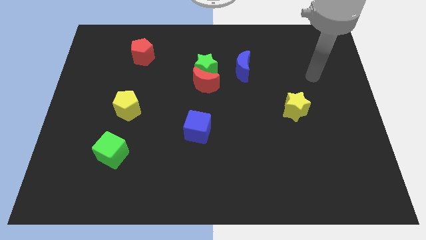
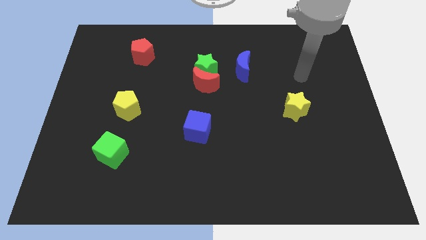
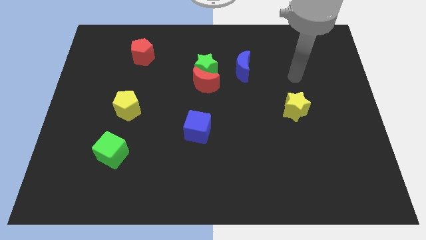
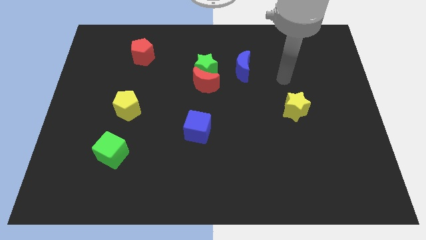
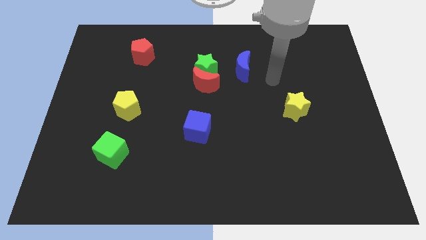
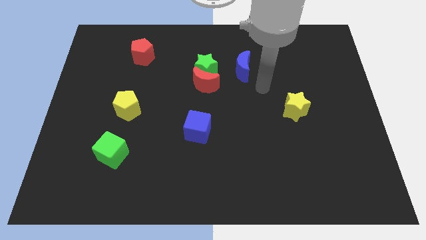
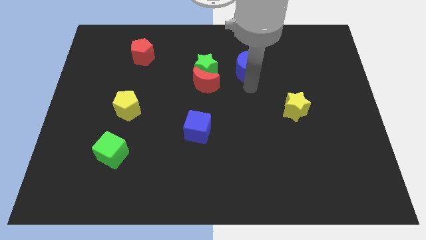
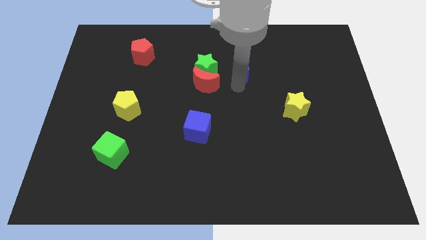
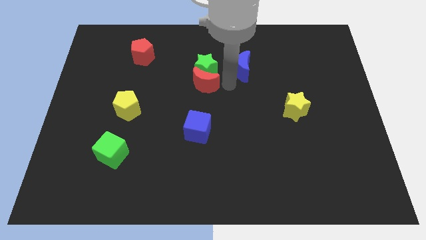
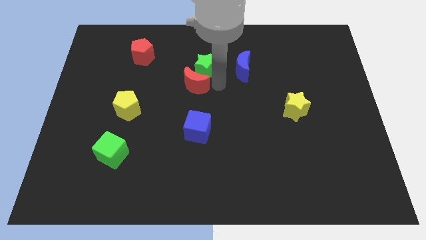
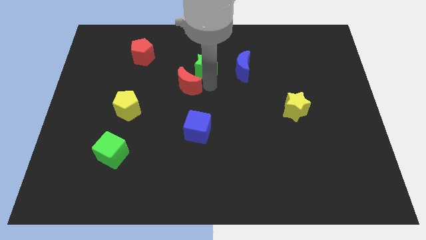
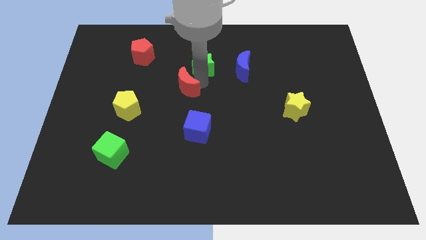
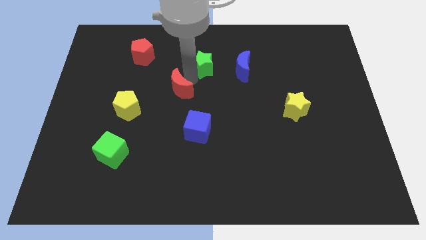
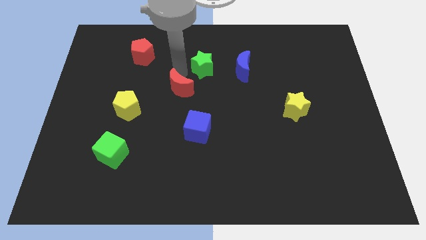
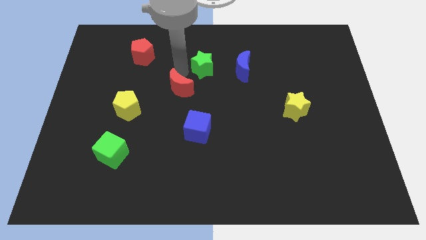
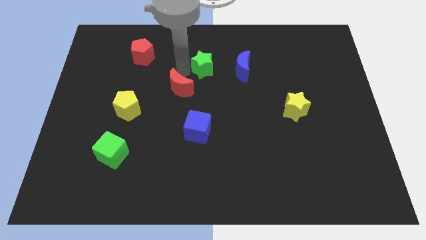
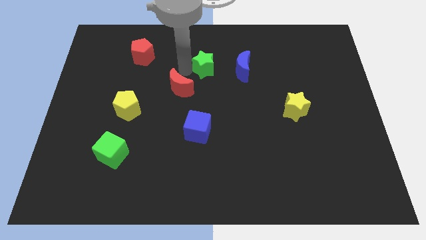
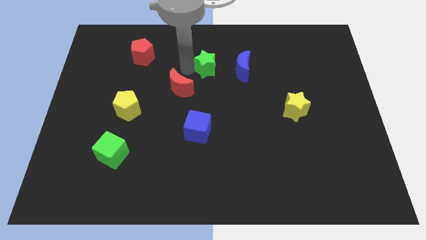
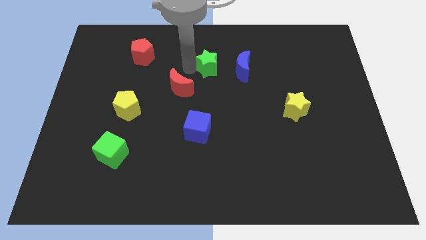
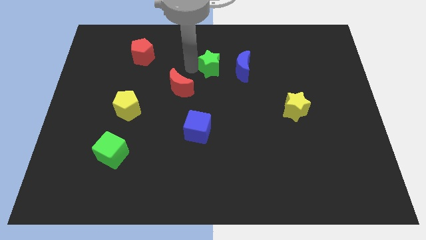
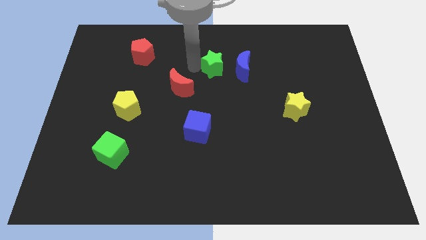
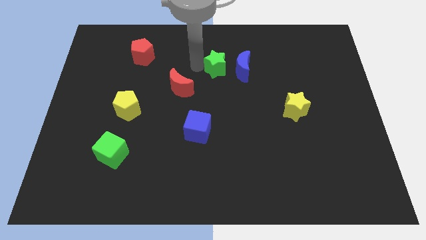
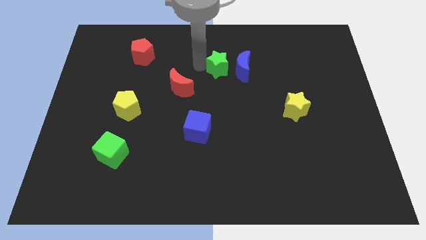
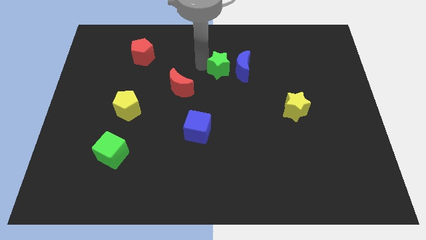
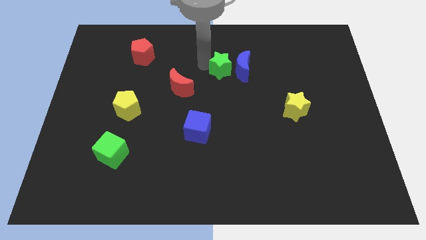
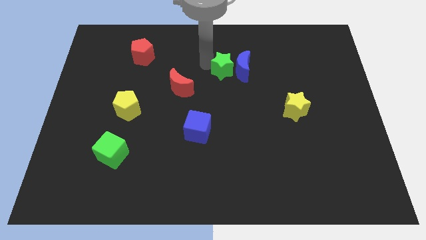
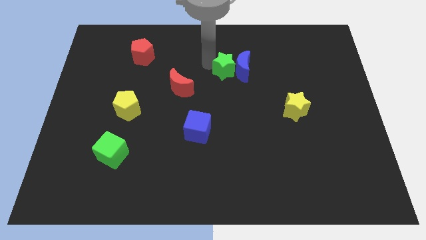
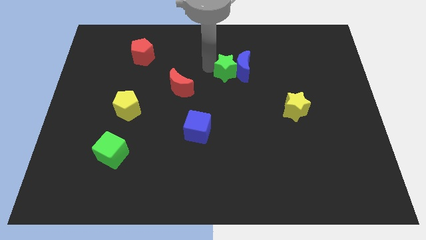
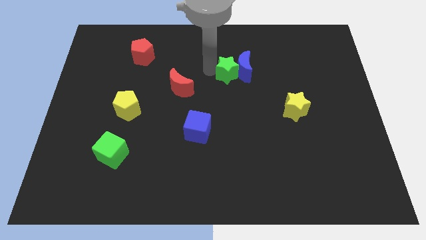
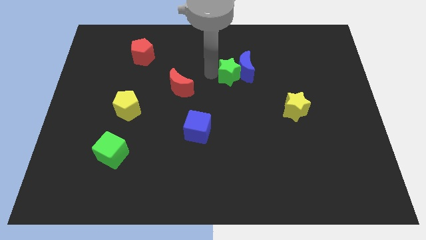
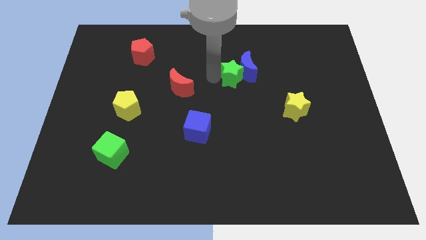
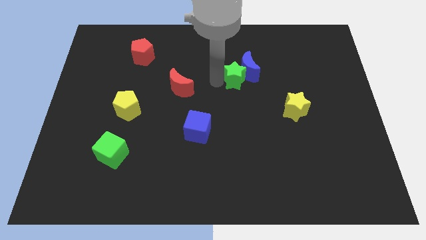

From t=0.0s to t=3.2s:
move the green star right a little bit

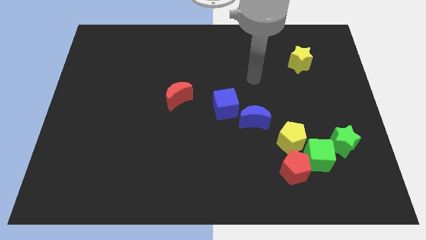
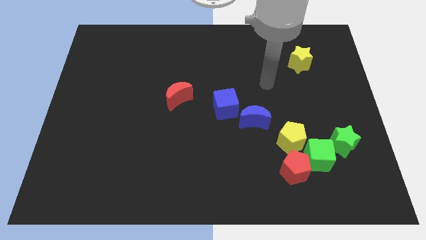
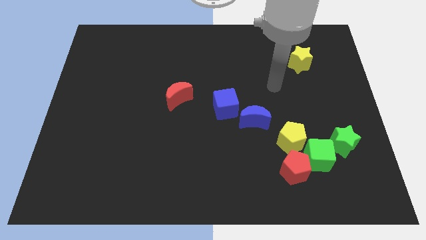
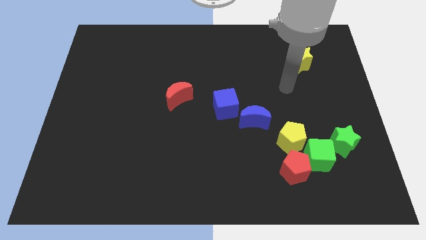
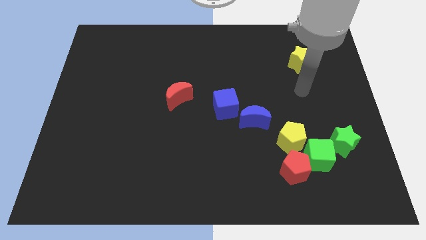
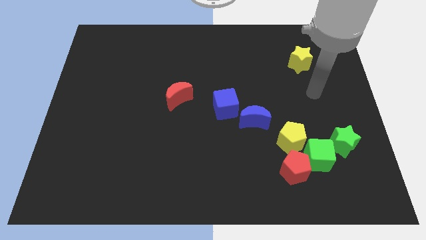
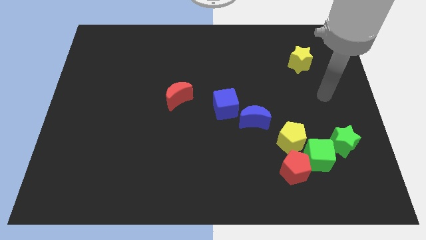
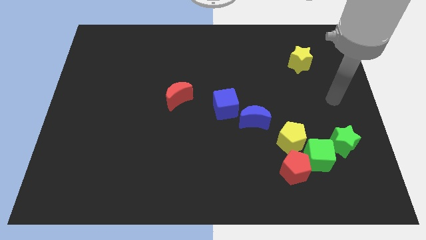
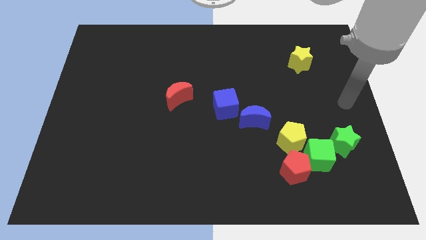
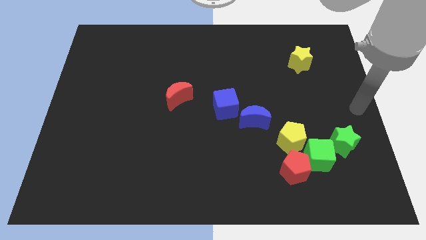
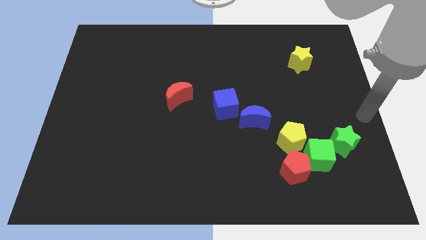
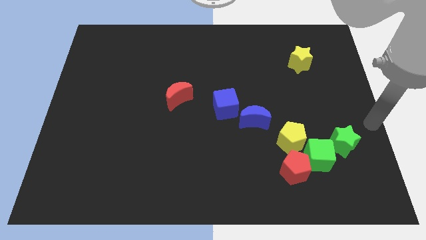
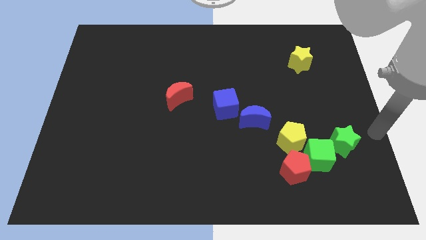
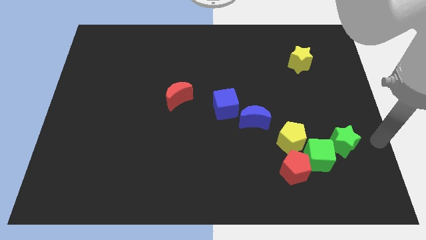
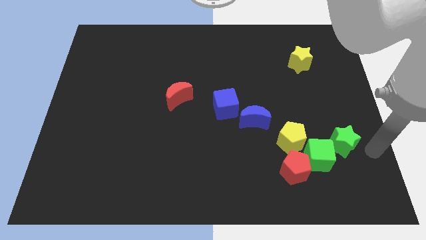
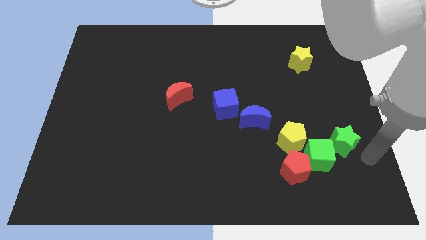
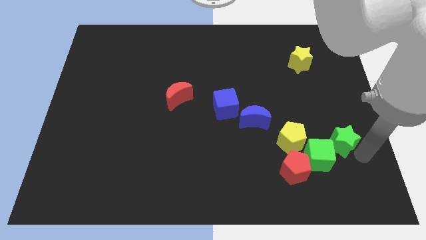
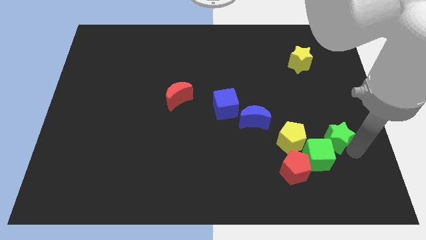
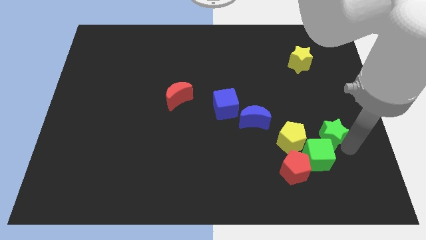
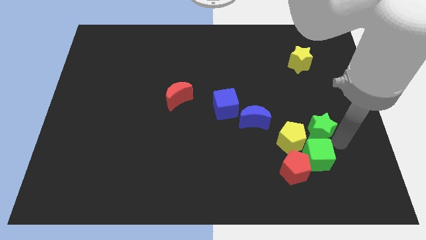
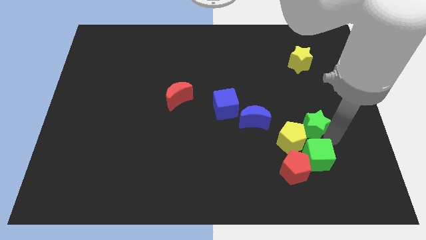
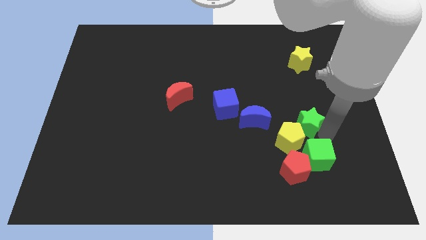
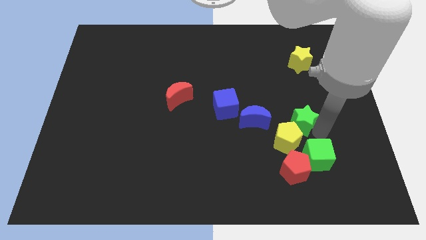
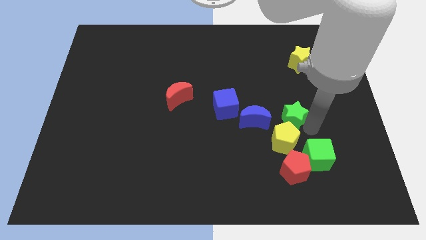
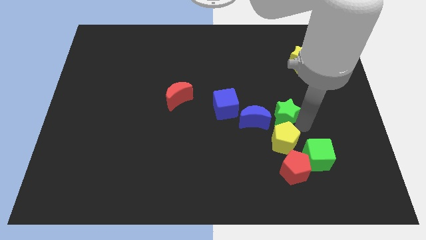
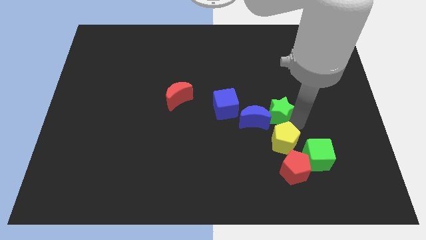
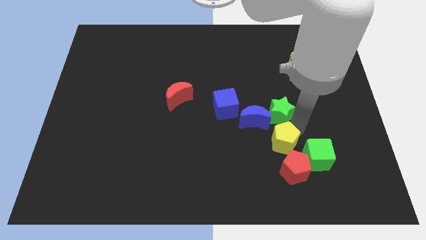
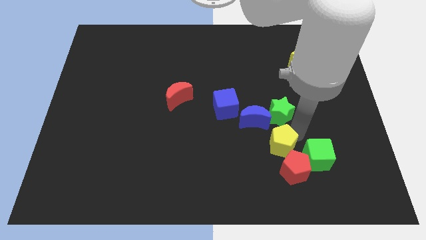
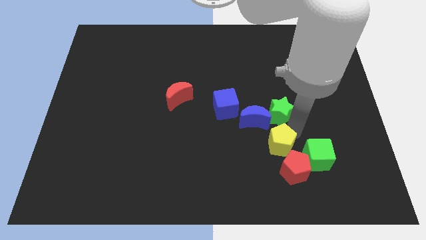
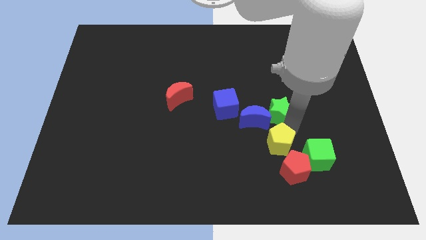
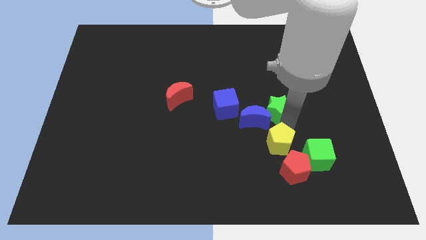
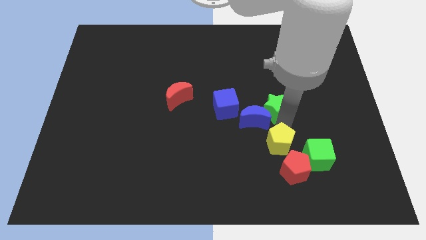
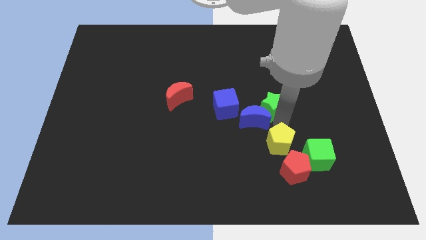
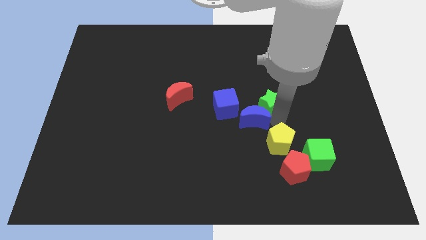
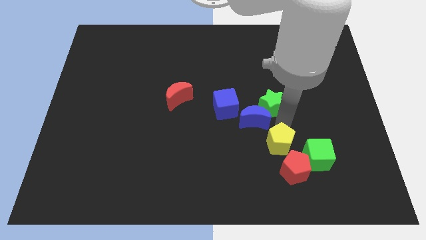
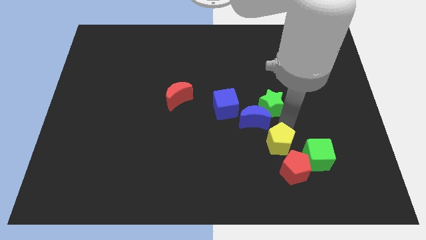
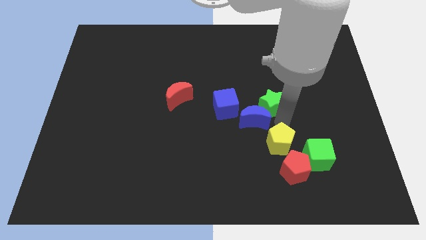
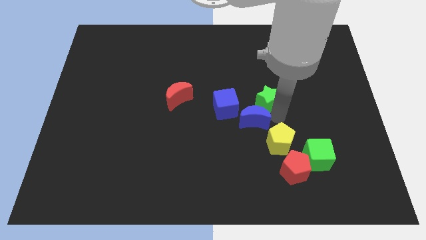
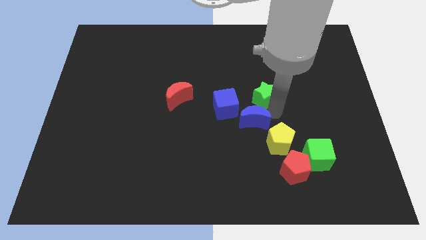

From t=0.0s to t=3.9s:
slide the green star up and then to the left

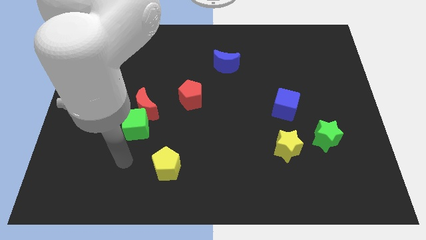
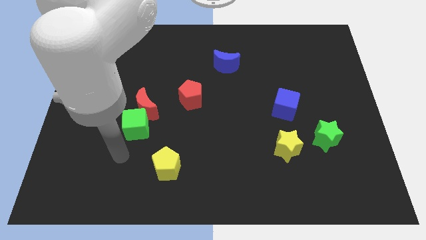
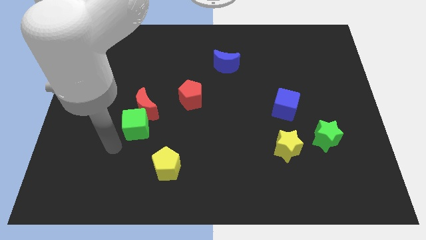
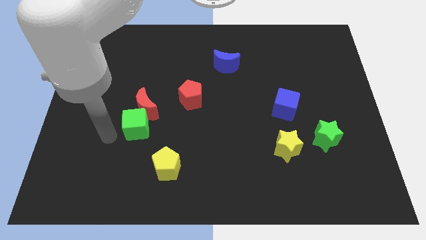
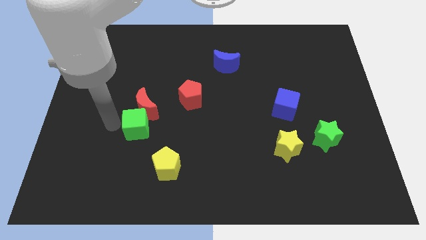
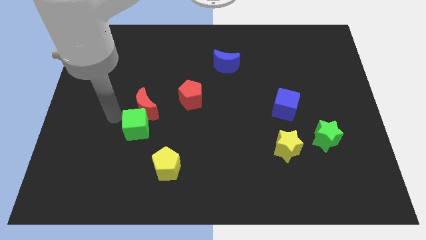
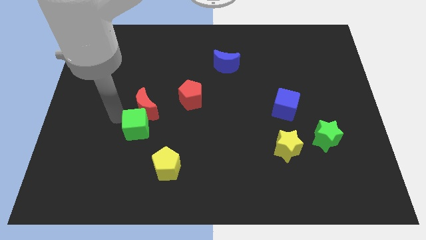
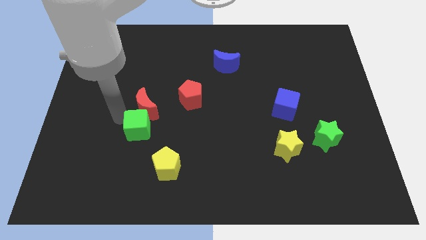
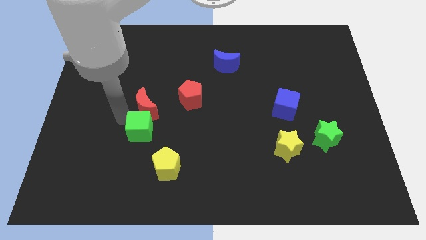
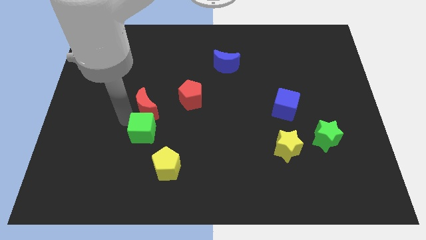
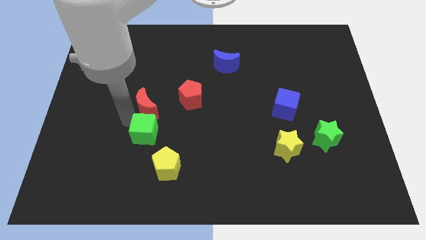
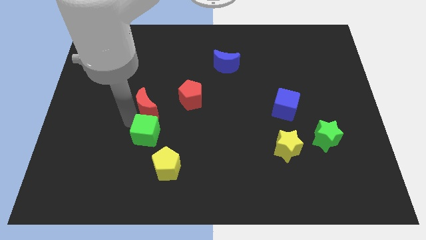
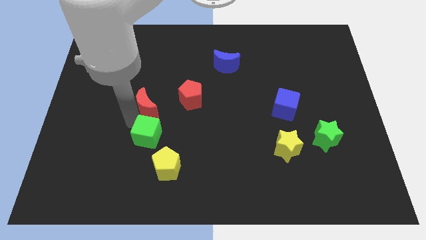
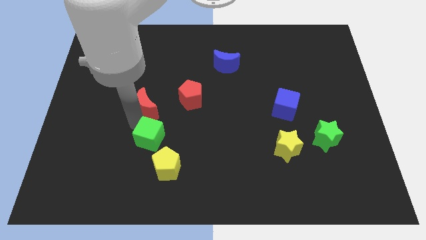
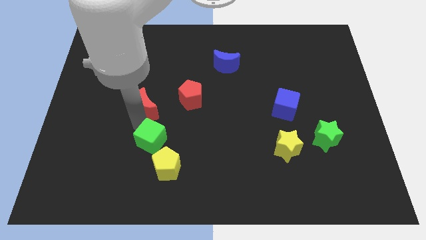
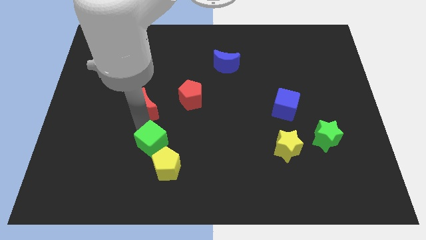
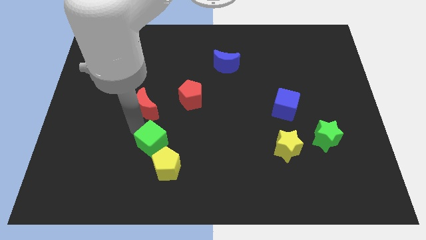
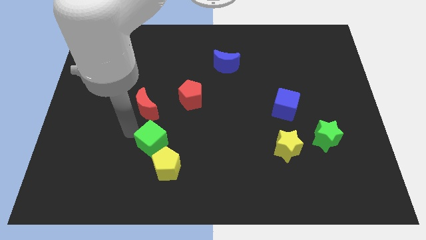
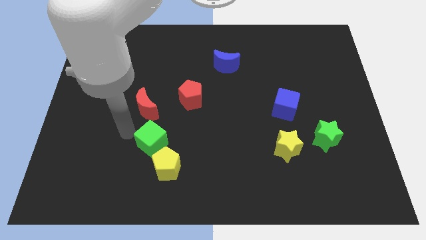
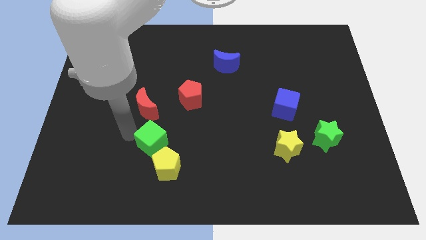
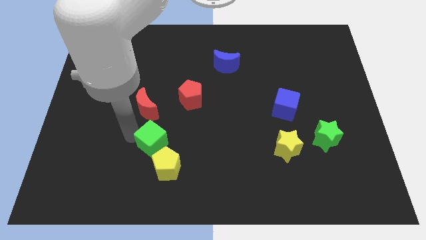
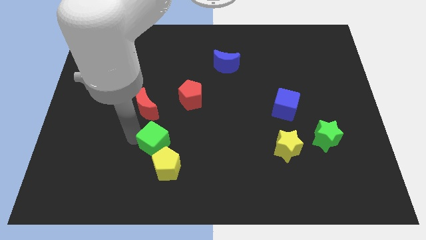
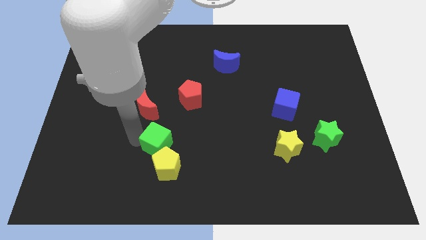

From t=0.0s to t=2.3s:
move the green cube a little bit downwards and then right
